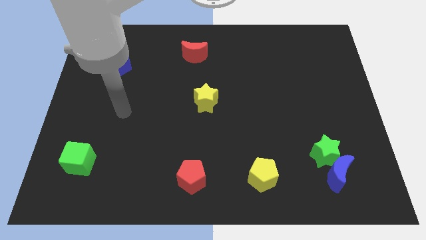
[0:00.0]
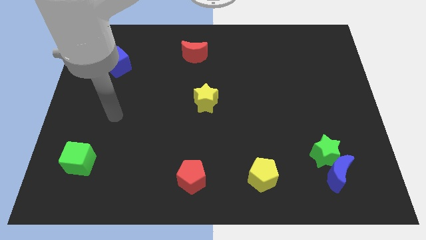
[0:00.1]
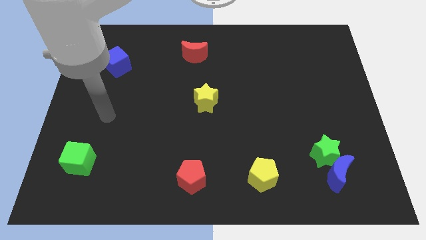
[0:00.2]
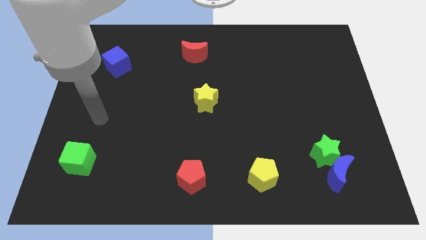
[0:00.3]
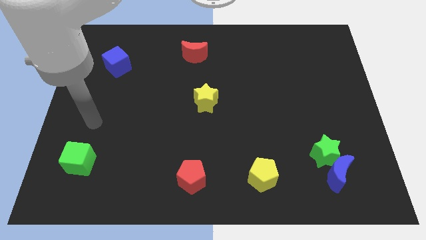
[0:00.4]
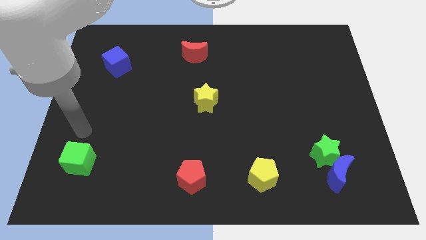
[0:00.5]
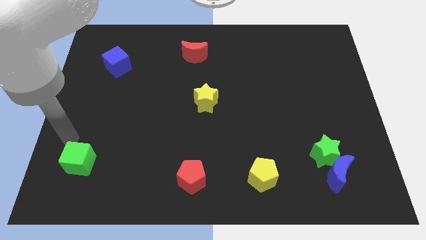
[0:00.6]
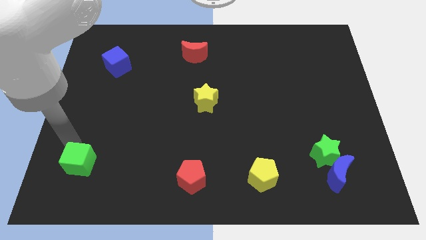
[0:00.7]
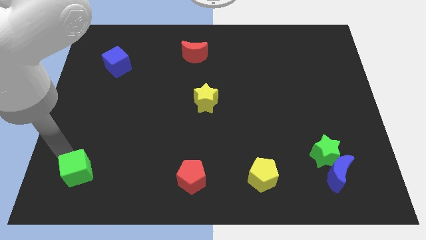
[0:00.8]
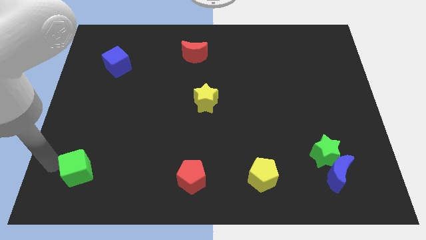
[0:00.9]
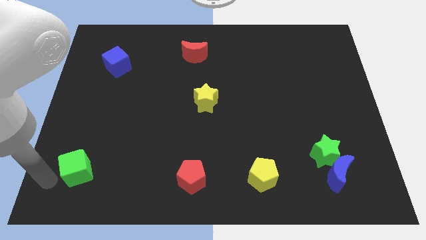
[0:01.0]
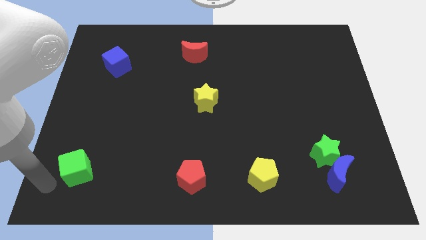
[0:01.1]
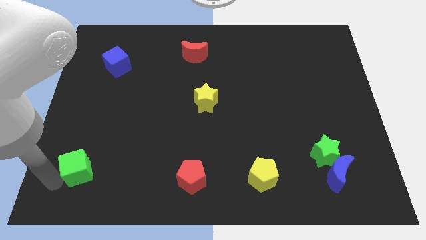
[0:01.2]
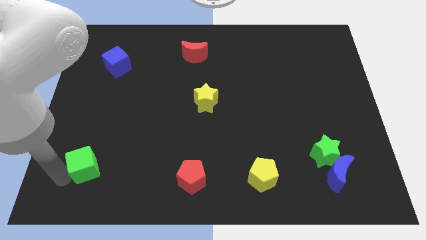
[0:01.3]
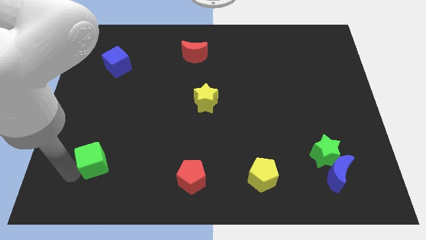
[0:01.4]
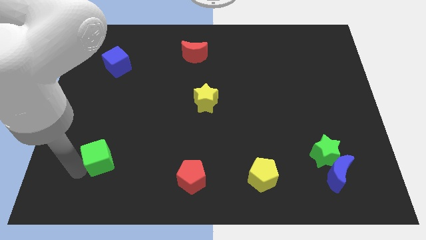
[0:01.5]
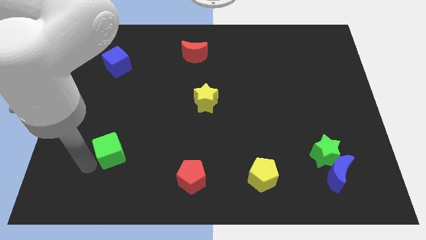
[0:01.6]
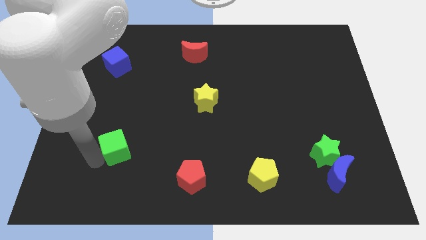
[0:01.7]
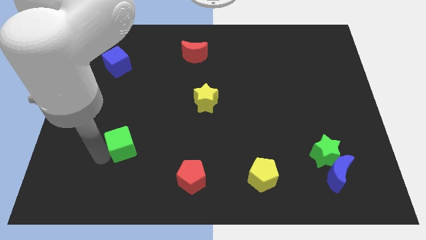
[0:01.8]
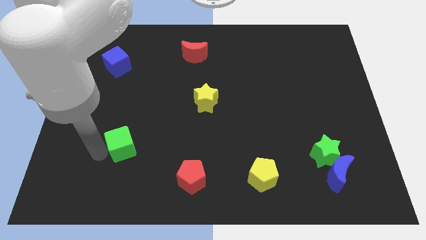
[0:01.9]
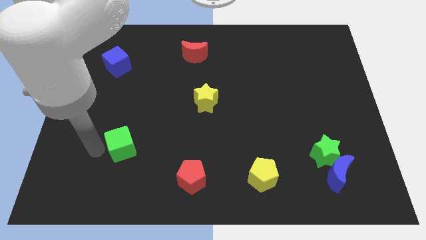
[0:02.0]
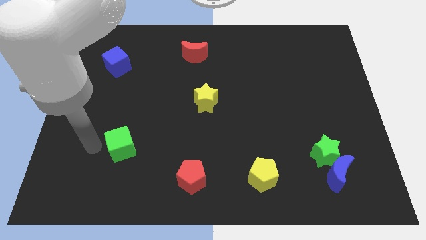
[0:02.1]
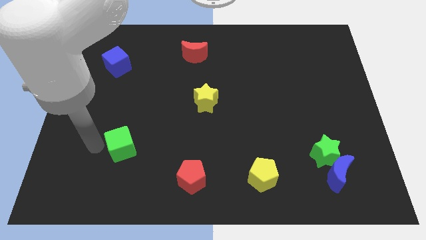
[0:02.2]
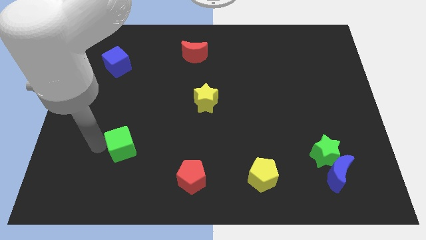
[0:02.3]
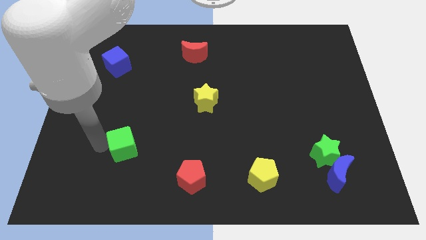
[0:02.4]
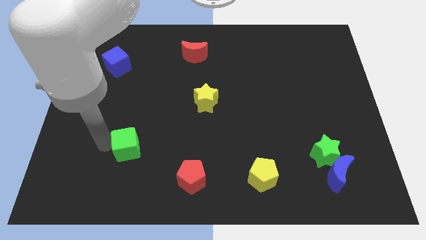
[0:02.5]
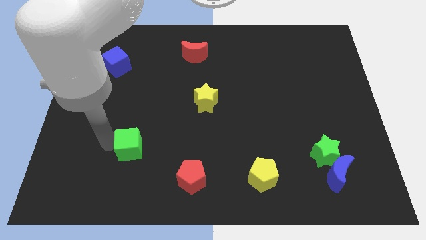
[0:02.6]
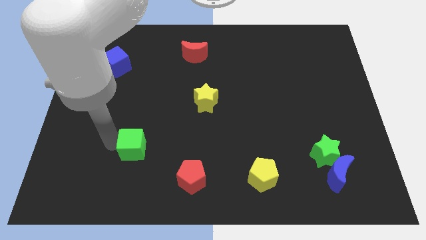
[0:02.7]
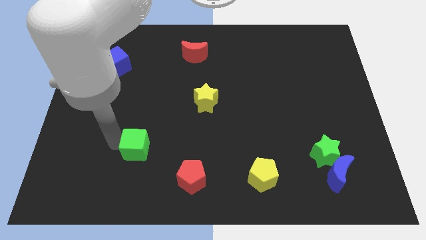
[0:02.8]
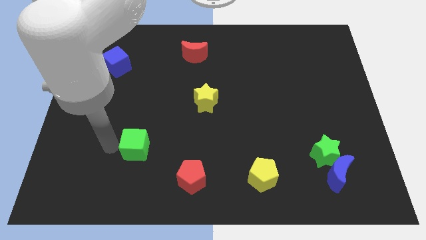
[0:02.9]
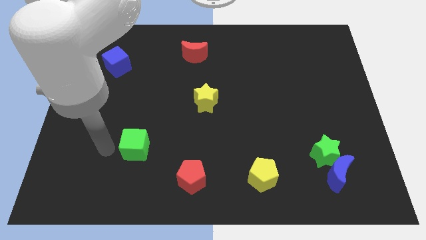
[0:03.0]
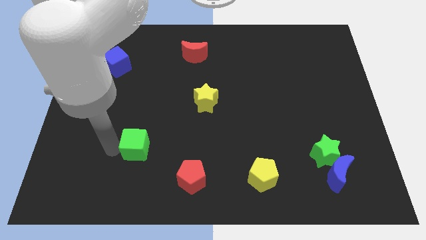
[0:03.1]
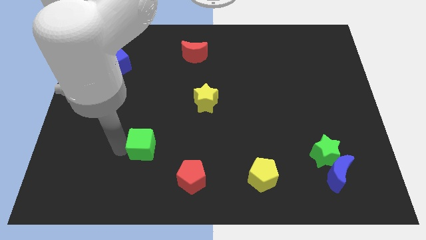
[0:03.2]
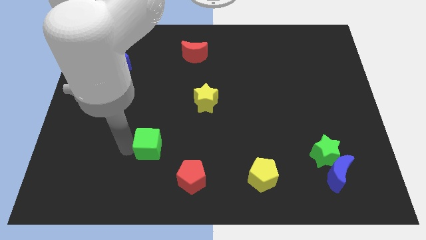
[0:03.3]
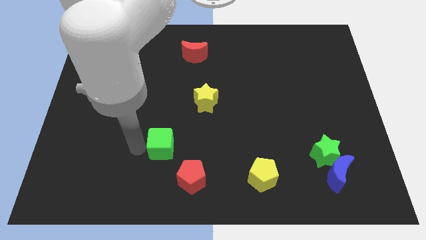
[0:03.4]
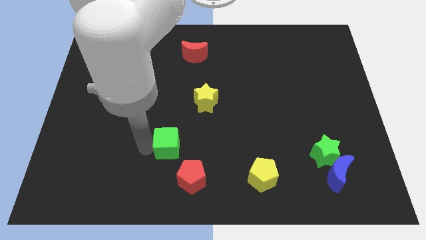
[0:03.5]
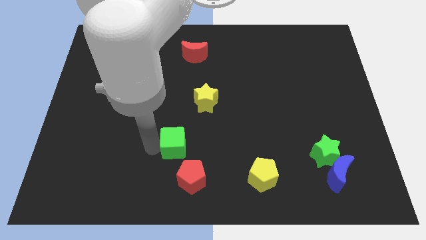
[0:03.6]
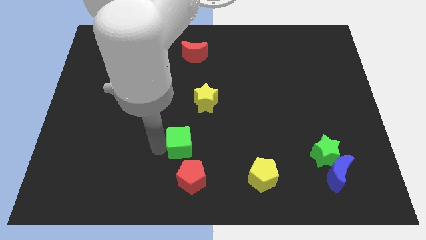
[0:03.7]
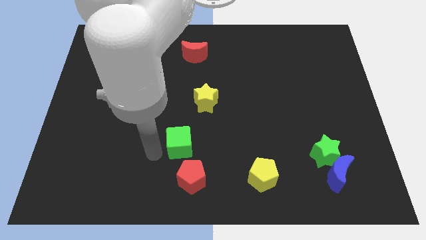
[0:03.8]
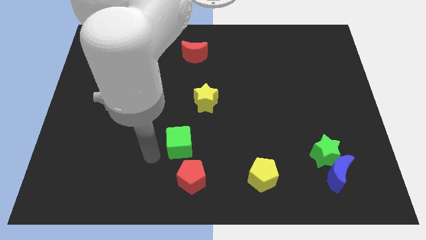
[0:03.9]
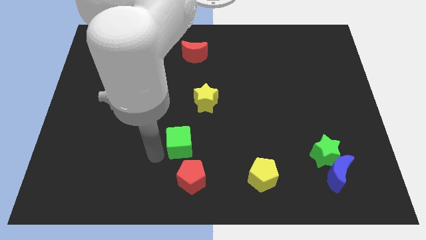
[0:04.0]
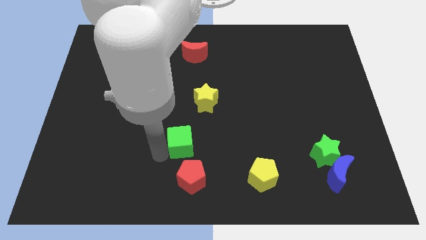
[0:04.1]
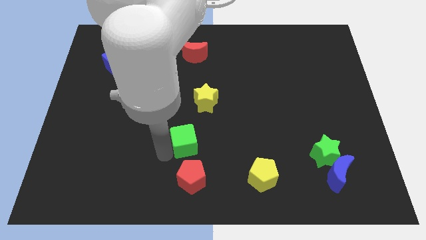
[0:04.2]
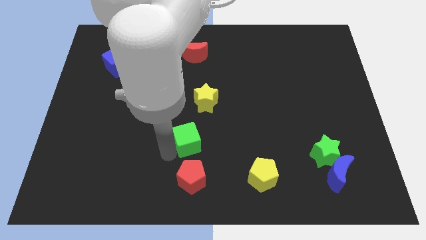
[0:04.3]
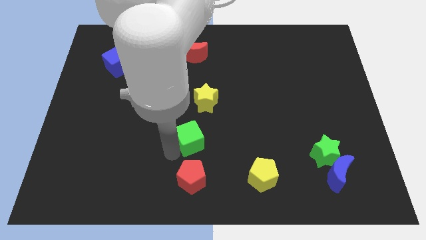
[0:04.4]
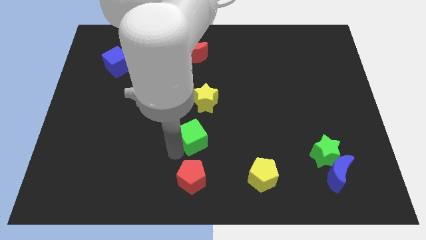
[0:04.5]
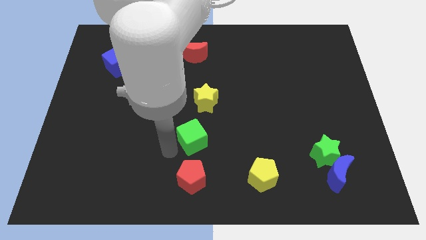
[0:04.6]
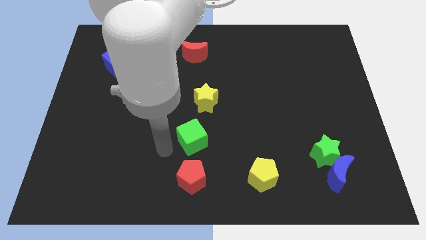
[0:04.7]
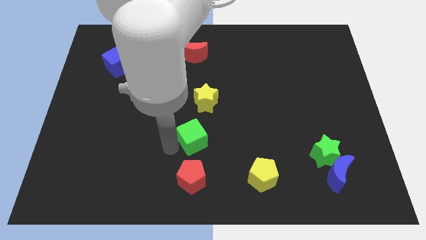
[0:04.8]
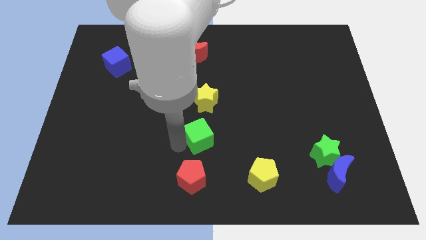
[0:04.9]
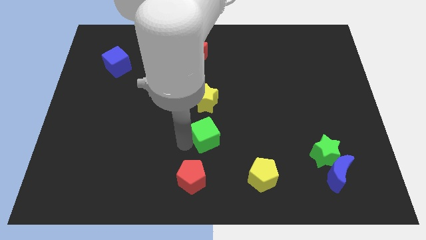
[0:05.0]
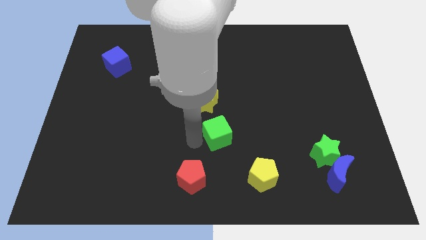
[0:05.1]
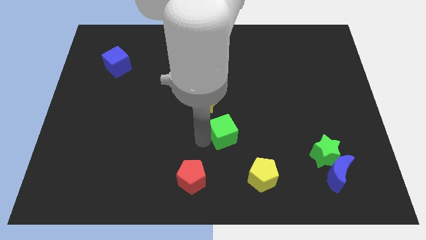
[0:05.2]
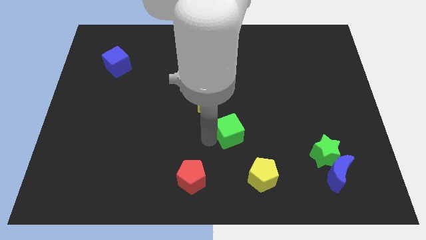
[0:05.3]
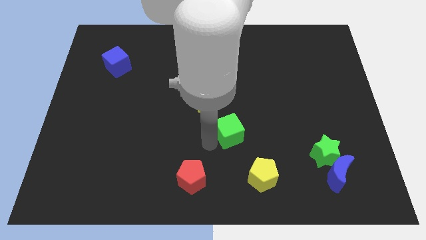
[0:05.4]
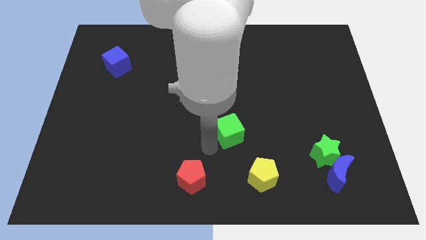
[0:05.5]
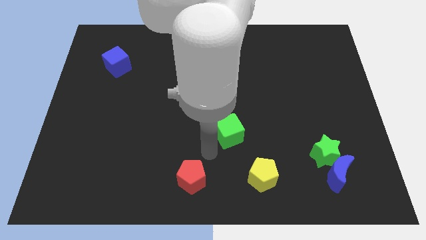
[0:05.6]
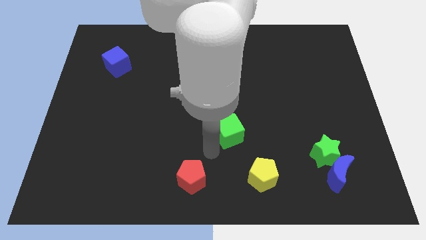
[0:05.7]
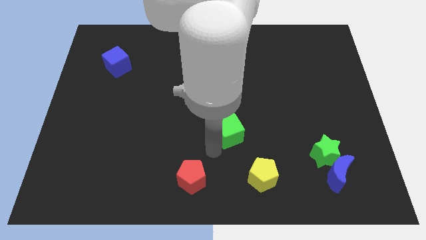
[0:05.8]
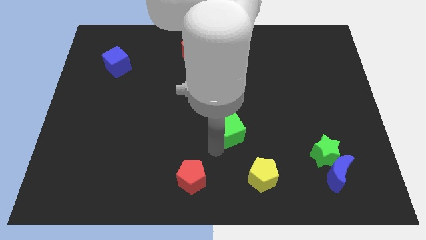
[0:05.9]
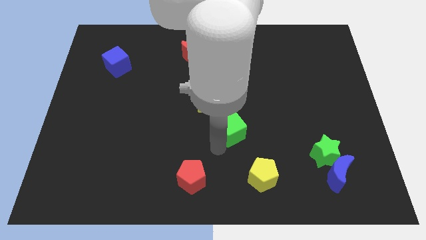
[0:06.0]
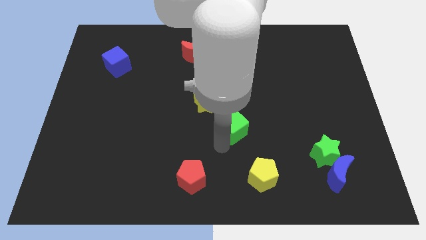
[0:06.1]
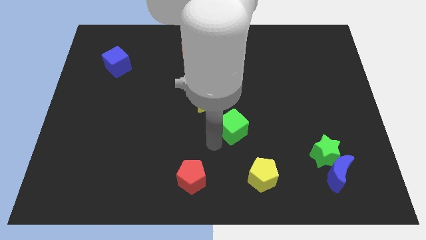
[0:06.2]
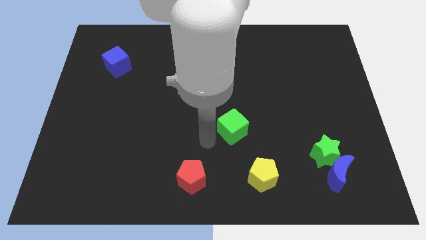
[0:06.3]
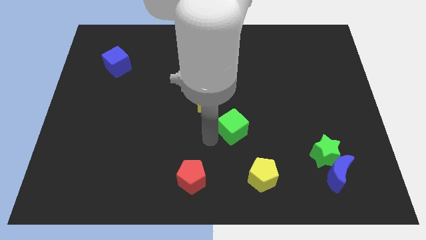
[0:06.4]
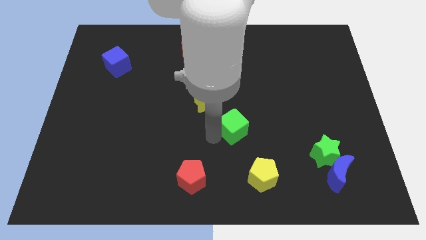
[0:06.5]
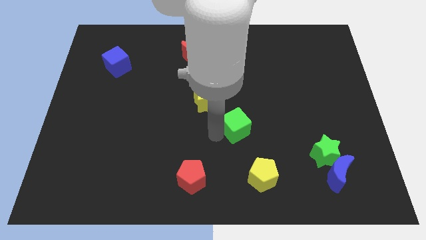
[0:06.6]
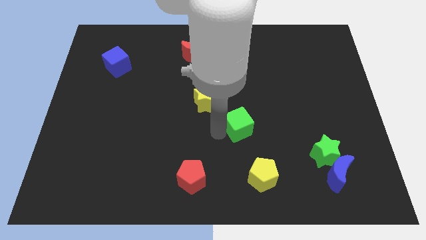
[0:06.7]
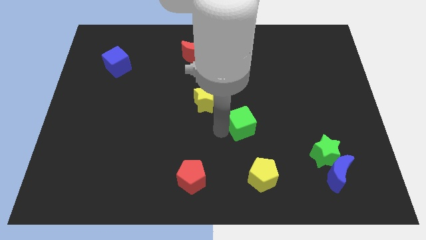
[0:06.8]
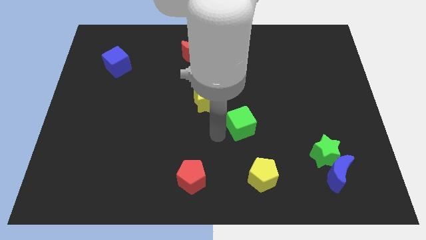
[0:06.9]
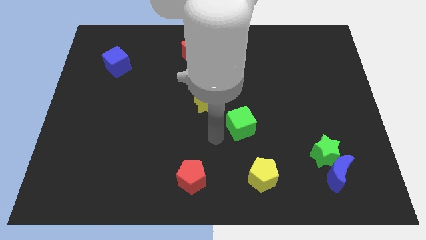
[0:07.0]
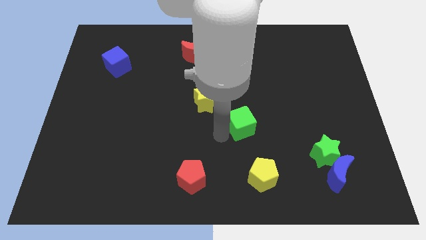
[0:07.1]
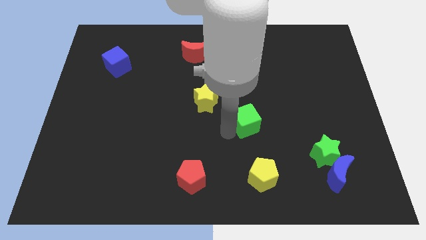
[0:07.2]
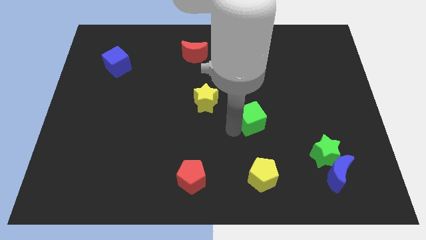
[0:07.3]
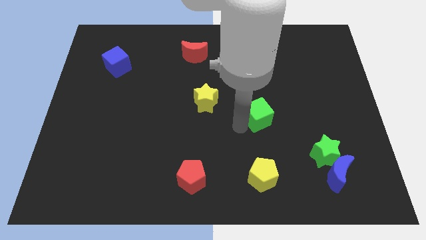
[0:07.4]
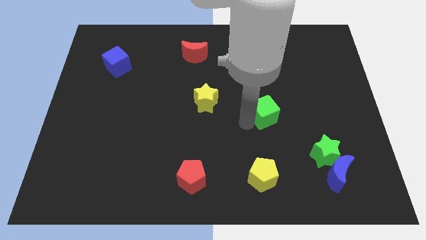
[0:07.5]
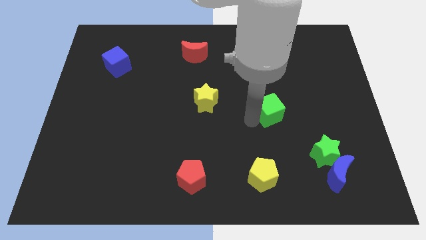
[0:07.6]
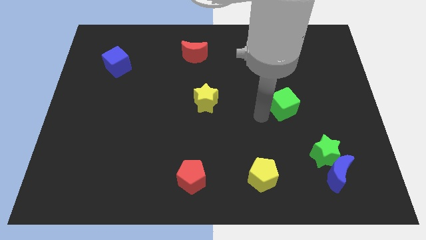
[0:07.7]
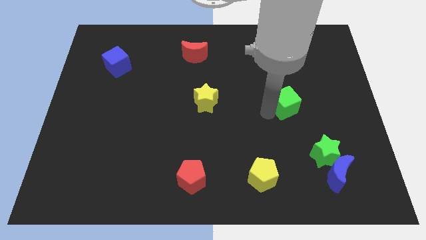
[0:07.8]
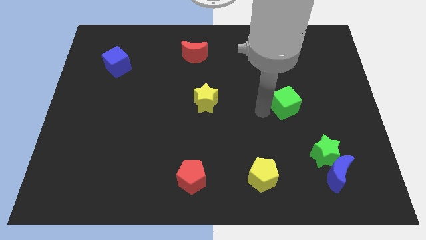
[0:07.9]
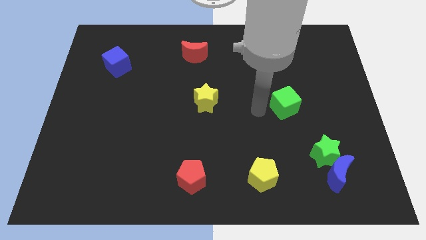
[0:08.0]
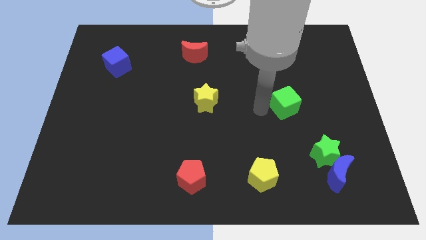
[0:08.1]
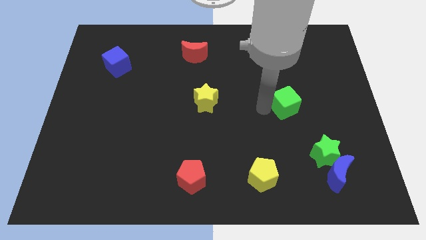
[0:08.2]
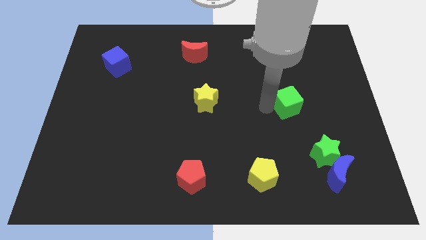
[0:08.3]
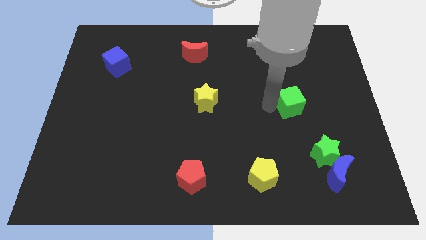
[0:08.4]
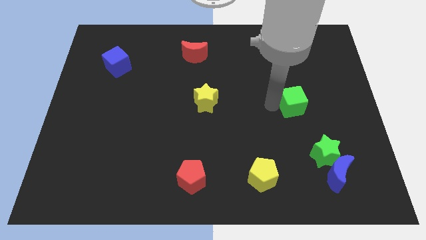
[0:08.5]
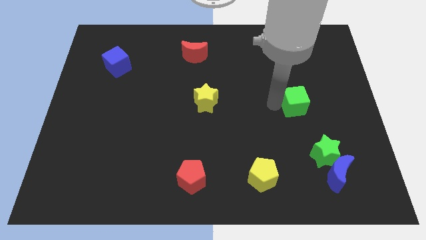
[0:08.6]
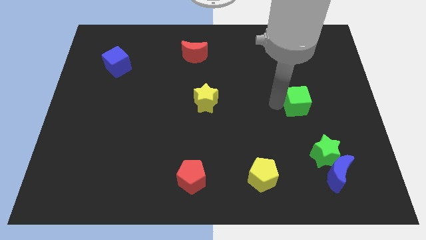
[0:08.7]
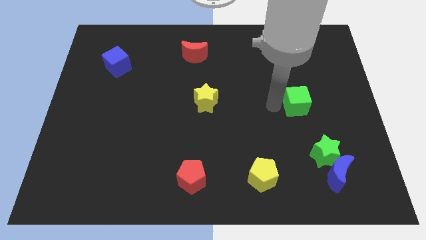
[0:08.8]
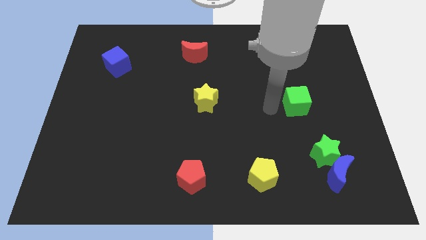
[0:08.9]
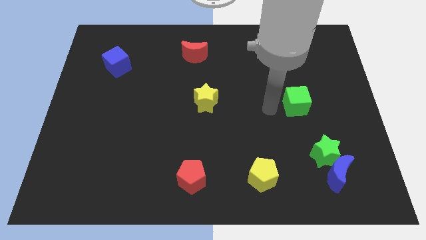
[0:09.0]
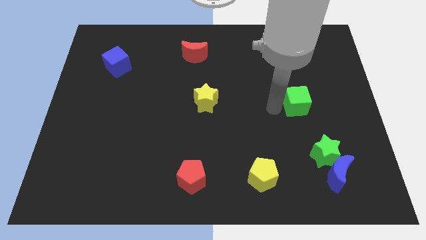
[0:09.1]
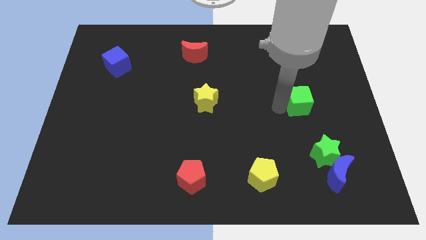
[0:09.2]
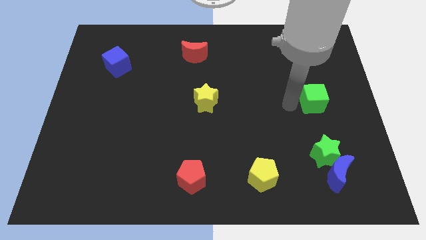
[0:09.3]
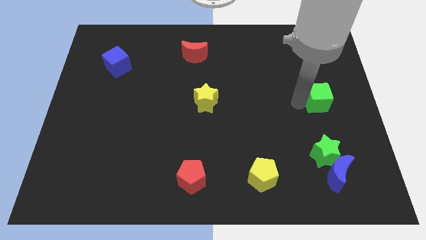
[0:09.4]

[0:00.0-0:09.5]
push the green cube to the right side
